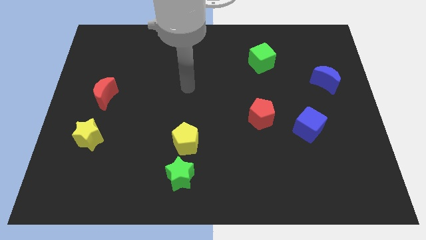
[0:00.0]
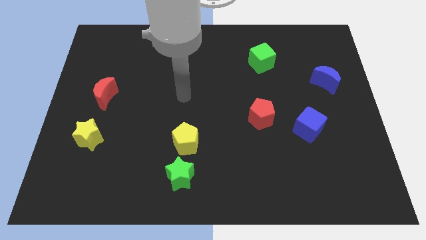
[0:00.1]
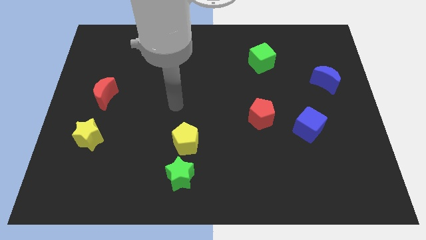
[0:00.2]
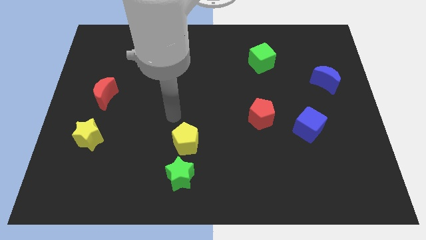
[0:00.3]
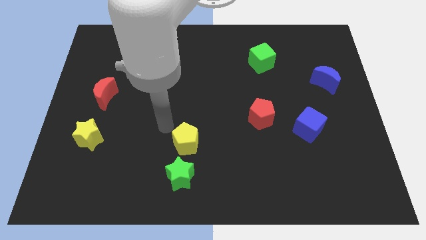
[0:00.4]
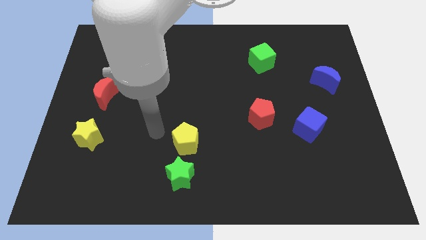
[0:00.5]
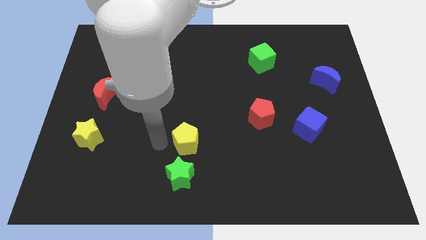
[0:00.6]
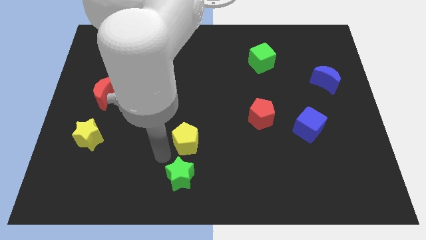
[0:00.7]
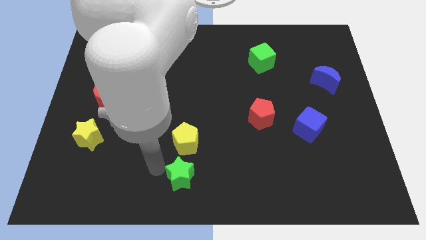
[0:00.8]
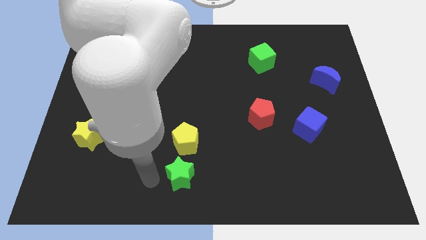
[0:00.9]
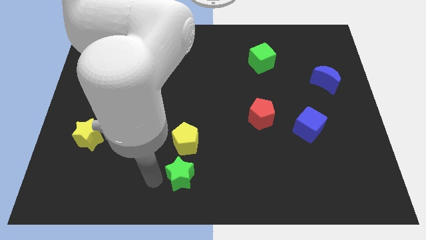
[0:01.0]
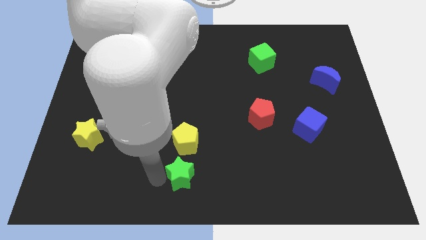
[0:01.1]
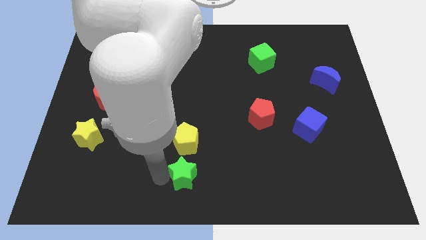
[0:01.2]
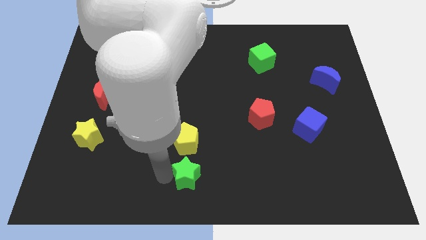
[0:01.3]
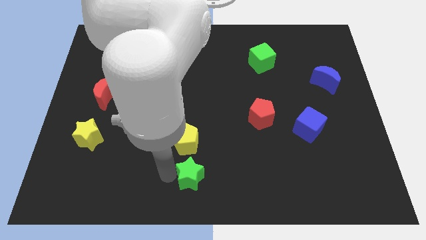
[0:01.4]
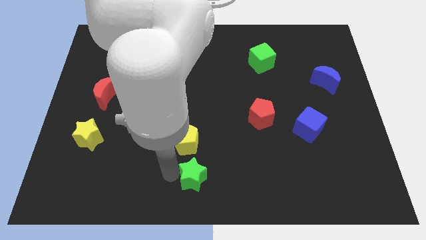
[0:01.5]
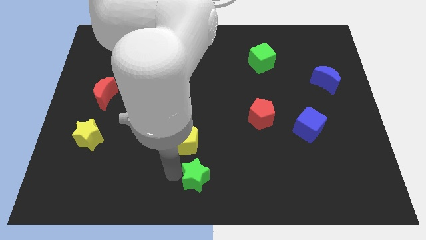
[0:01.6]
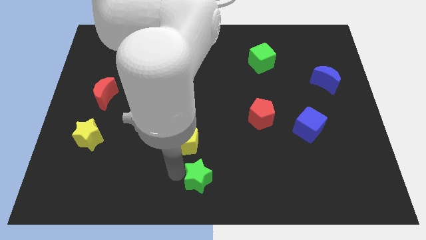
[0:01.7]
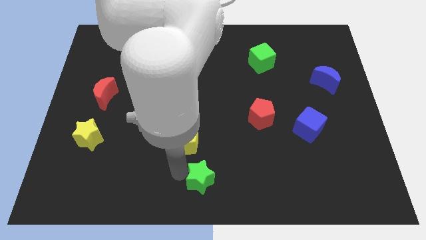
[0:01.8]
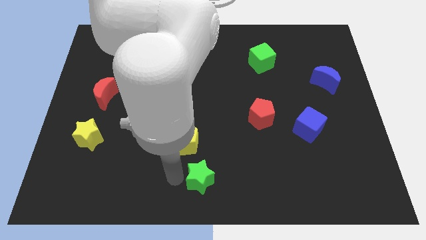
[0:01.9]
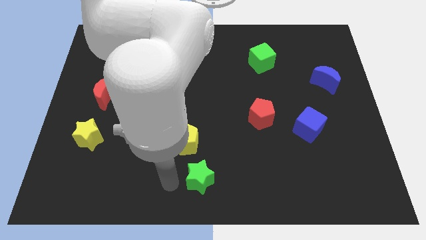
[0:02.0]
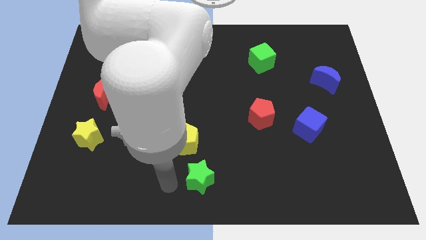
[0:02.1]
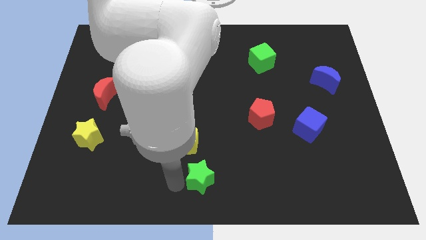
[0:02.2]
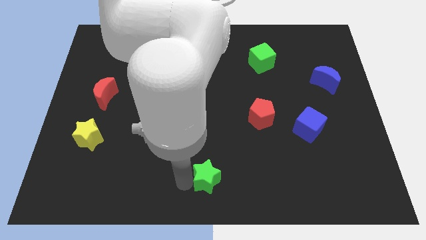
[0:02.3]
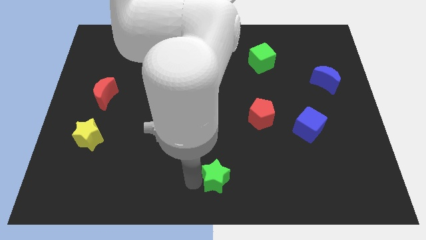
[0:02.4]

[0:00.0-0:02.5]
slightly push the green star to the right

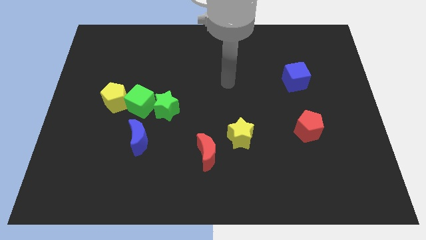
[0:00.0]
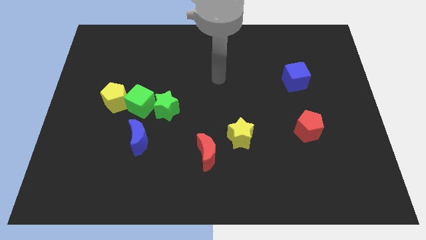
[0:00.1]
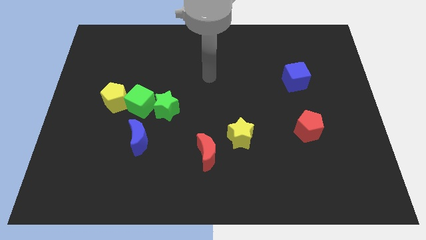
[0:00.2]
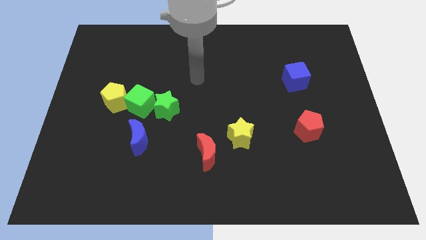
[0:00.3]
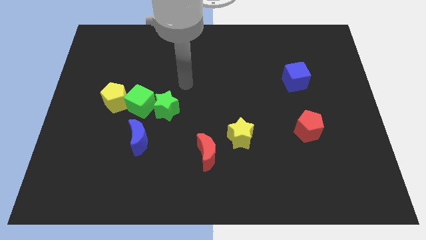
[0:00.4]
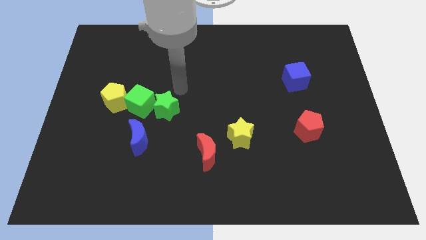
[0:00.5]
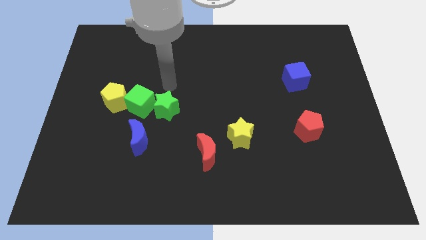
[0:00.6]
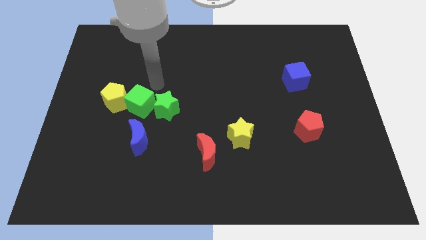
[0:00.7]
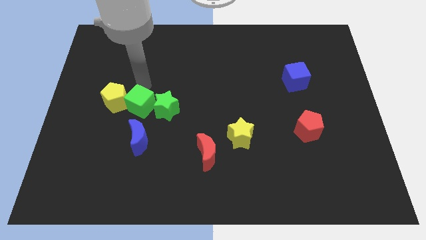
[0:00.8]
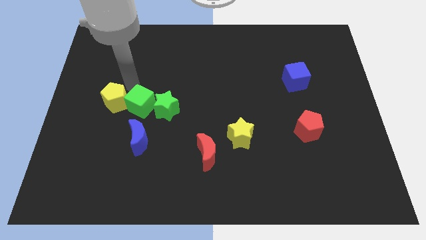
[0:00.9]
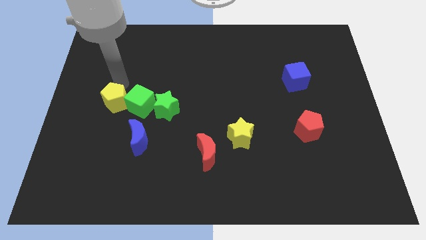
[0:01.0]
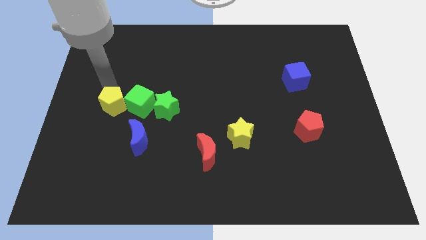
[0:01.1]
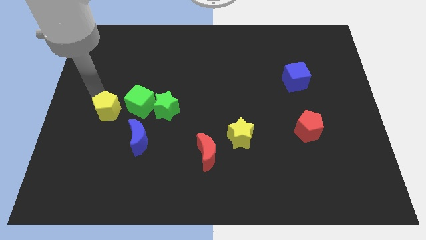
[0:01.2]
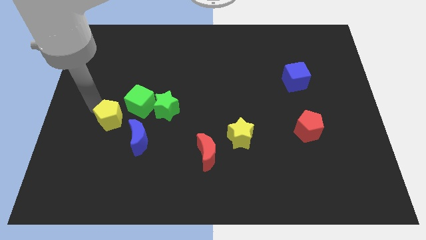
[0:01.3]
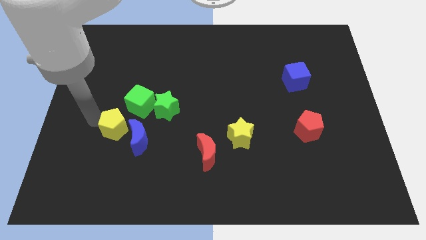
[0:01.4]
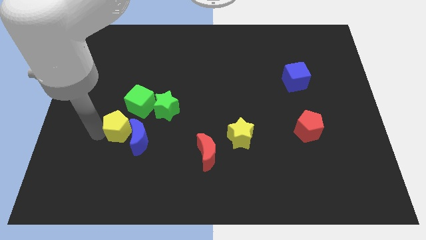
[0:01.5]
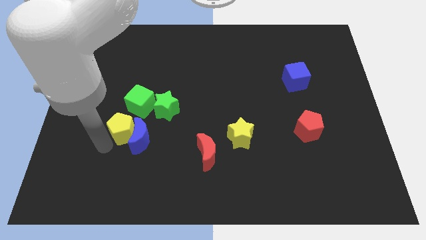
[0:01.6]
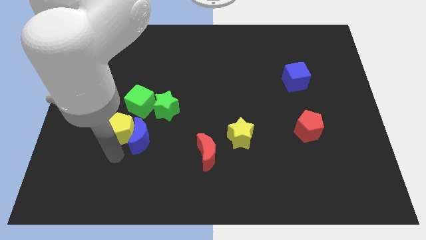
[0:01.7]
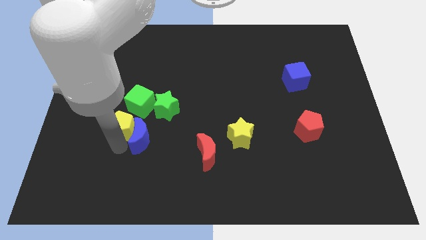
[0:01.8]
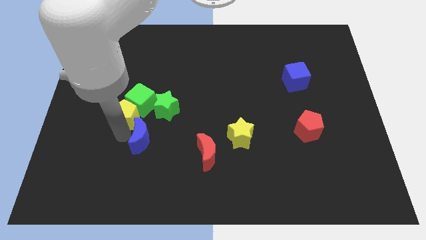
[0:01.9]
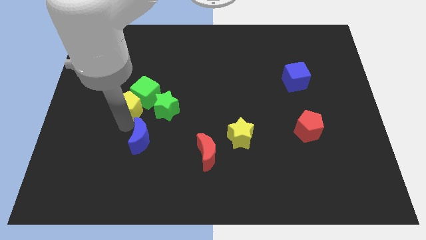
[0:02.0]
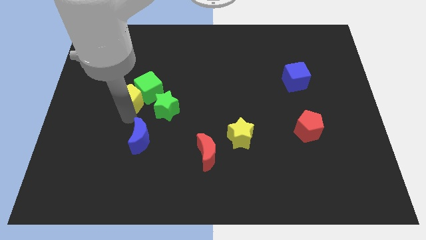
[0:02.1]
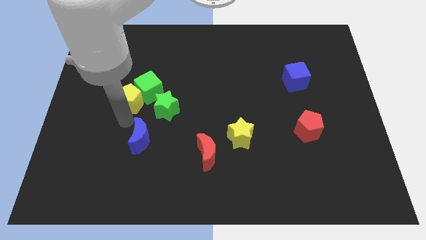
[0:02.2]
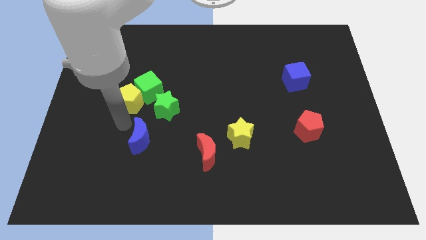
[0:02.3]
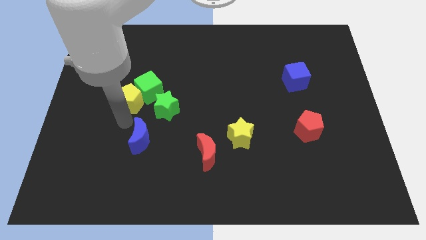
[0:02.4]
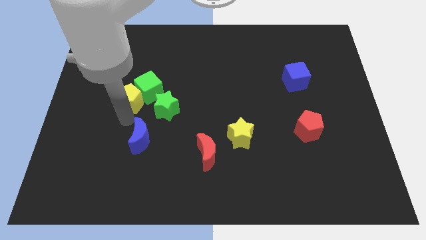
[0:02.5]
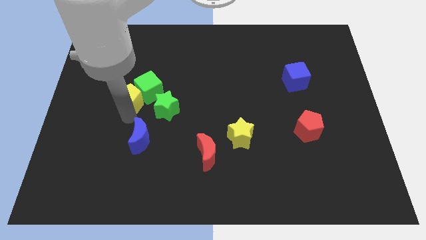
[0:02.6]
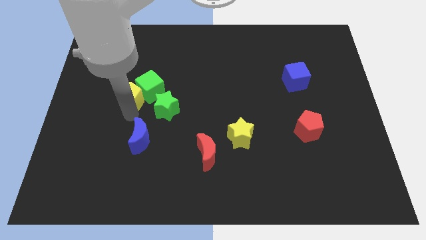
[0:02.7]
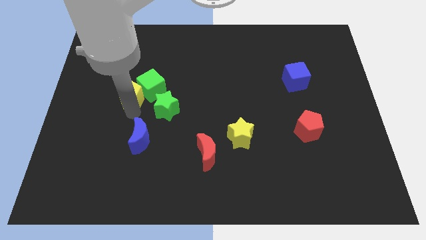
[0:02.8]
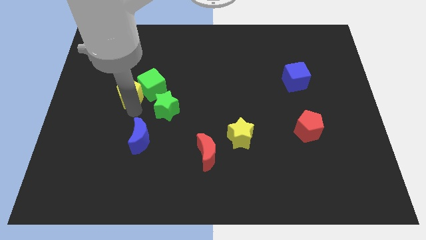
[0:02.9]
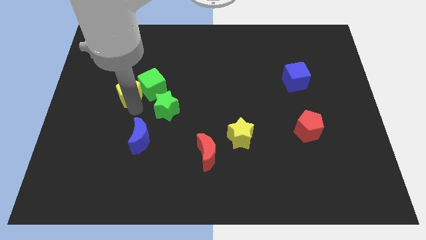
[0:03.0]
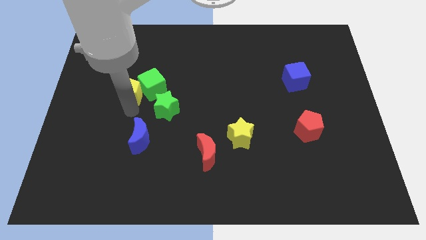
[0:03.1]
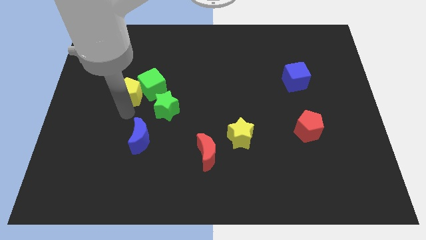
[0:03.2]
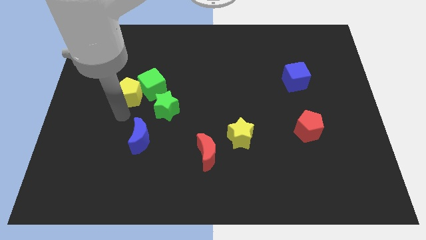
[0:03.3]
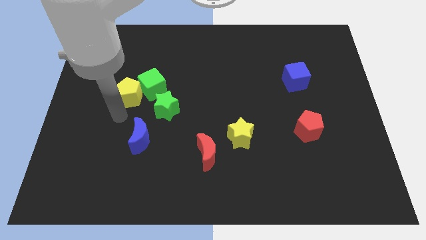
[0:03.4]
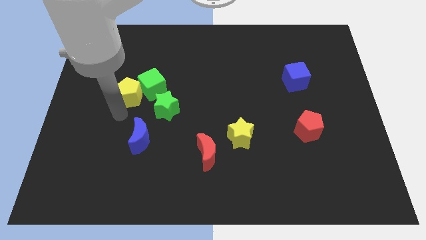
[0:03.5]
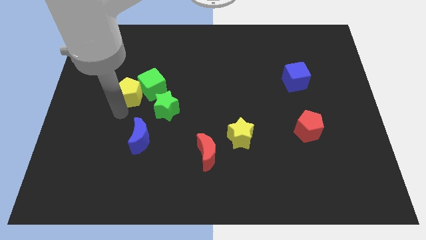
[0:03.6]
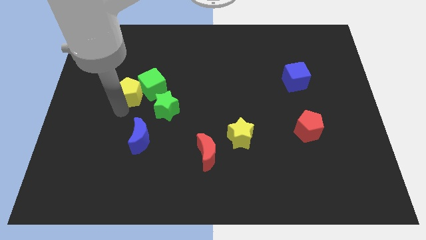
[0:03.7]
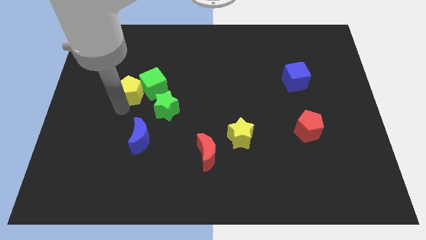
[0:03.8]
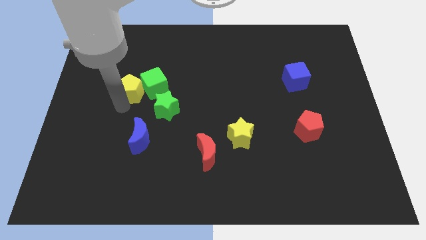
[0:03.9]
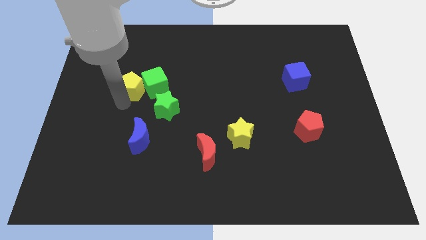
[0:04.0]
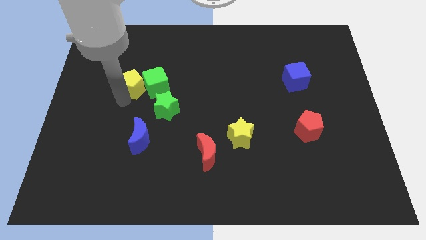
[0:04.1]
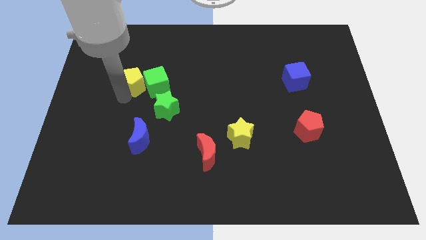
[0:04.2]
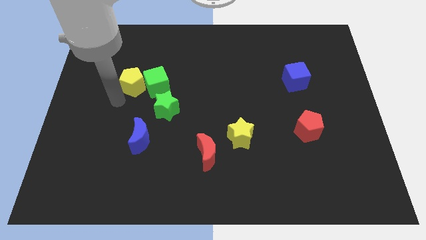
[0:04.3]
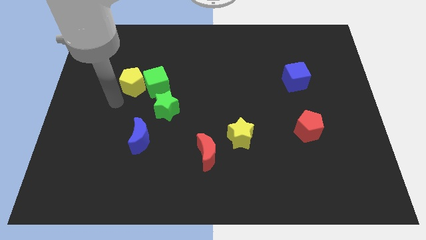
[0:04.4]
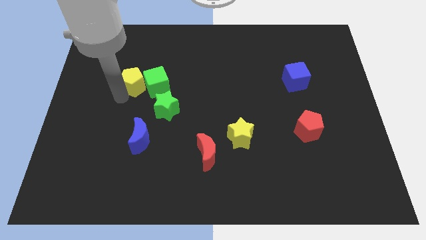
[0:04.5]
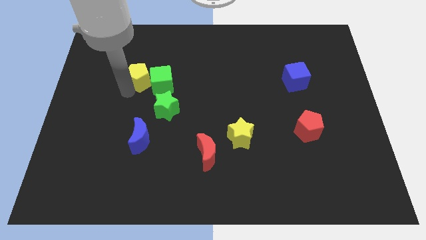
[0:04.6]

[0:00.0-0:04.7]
slightly push the yellow pentagon up and to the right

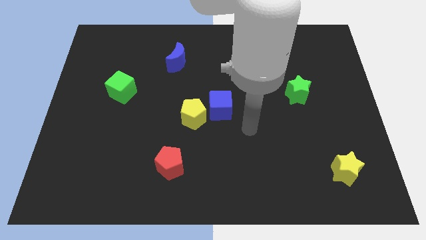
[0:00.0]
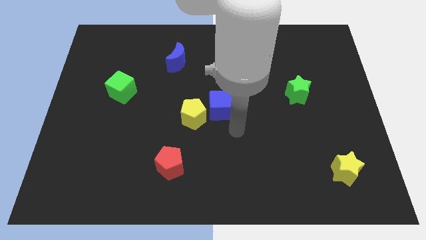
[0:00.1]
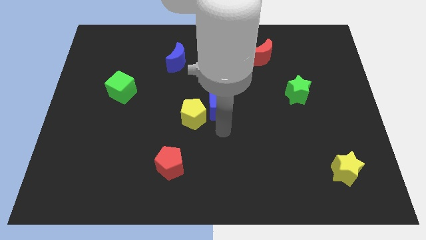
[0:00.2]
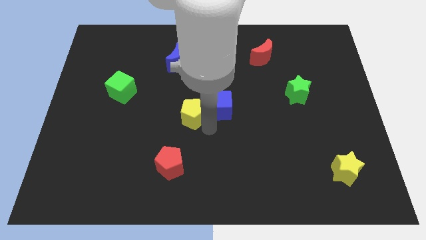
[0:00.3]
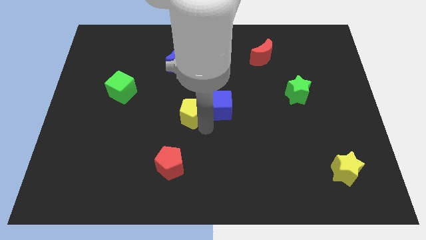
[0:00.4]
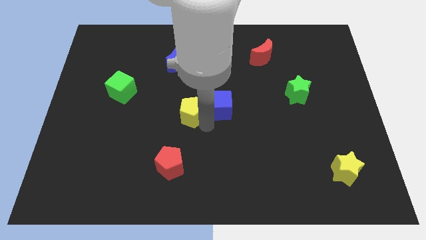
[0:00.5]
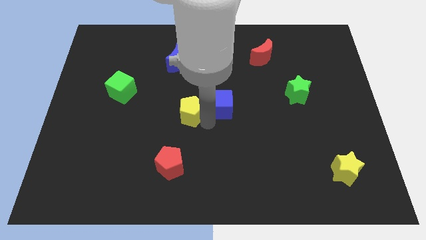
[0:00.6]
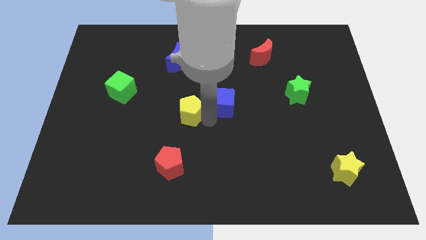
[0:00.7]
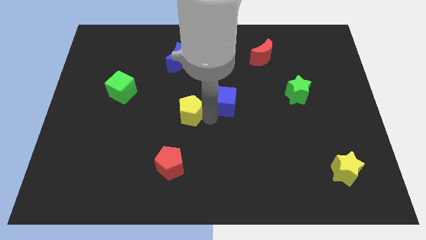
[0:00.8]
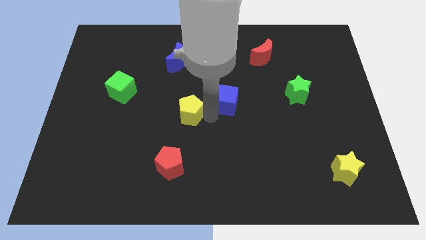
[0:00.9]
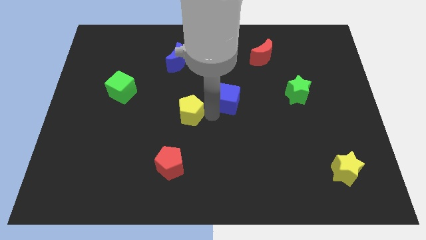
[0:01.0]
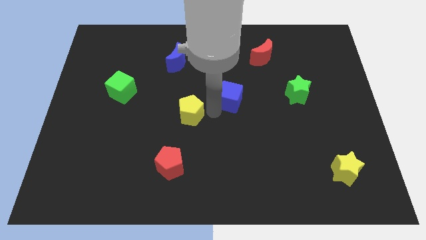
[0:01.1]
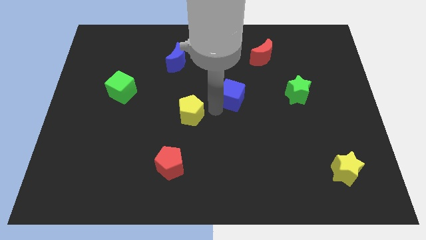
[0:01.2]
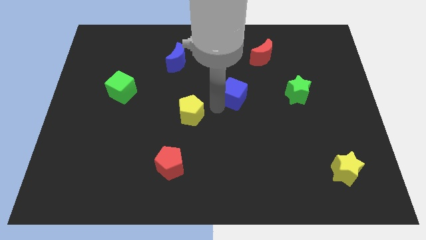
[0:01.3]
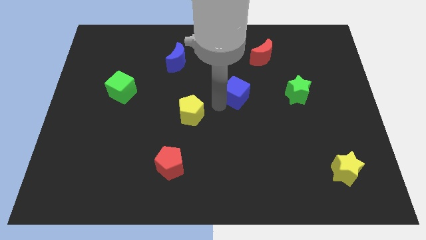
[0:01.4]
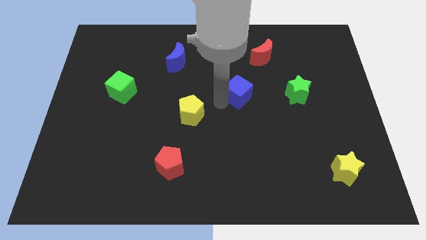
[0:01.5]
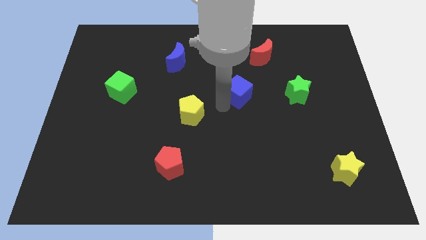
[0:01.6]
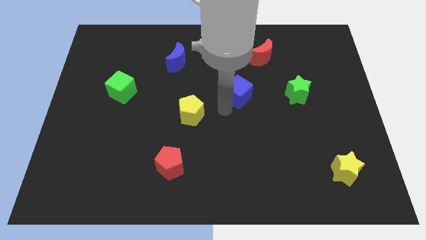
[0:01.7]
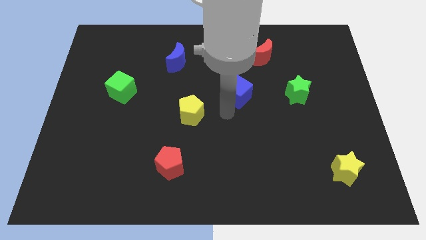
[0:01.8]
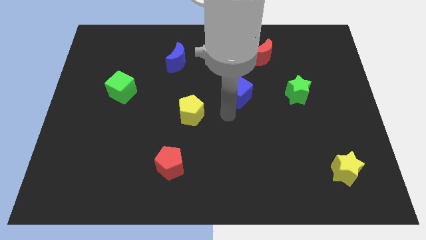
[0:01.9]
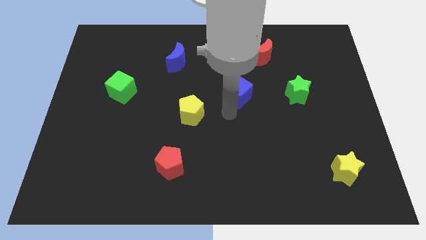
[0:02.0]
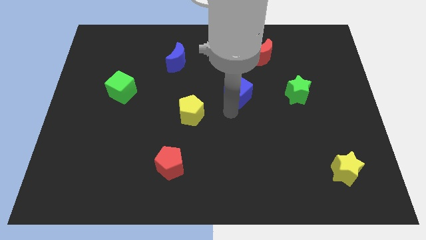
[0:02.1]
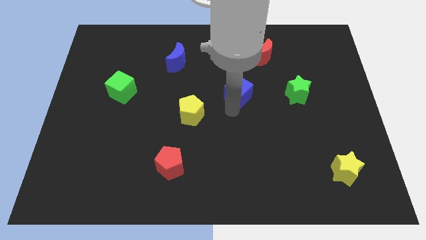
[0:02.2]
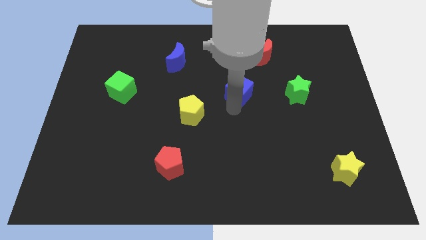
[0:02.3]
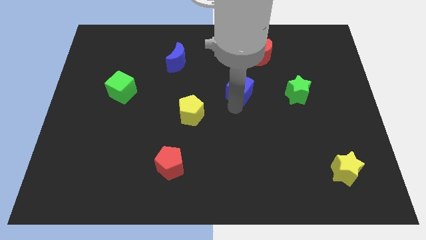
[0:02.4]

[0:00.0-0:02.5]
push the blue cube up and then right slightly
